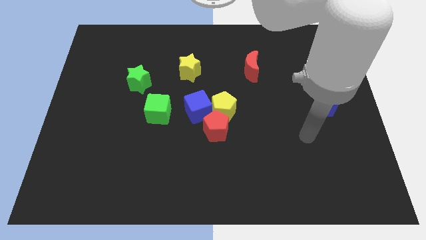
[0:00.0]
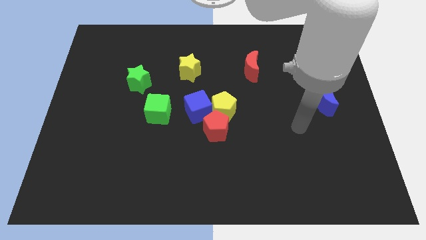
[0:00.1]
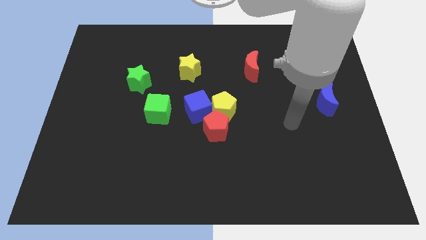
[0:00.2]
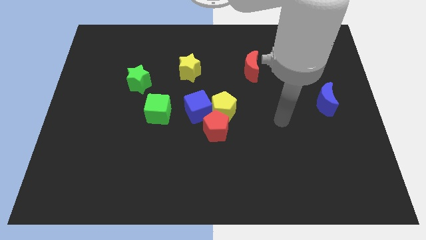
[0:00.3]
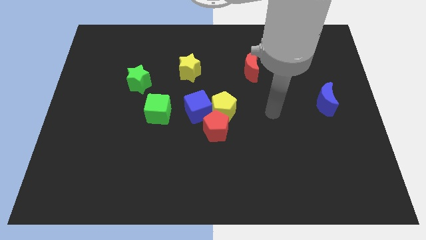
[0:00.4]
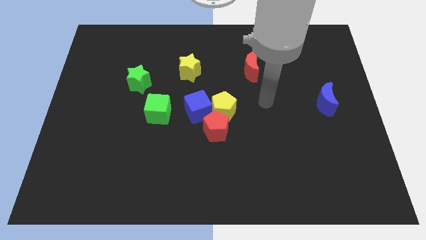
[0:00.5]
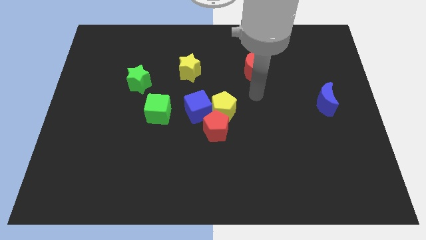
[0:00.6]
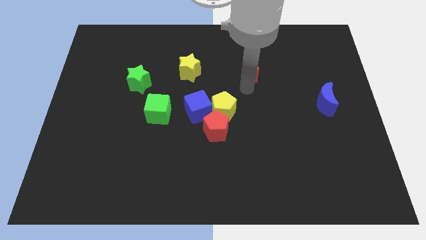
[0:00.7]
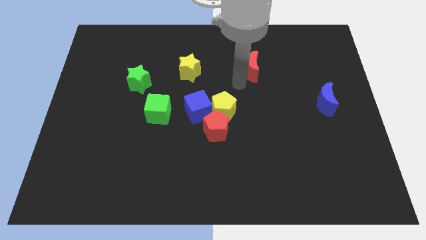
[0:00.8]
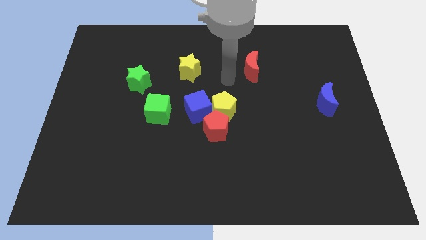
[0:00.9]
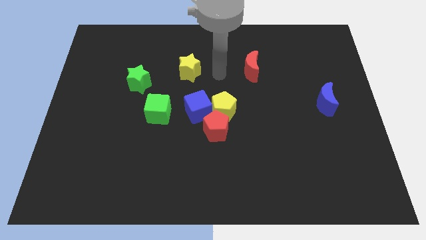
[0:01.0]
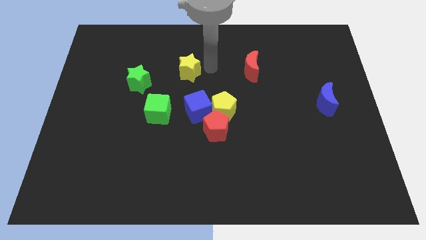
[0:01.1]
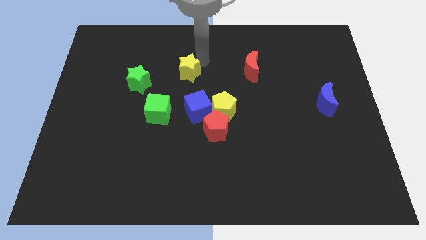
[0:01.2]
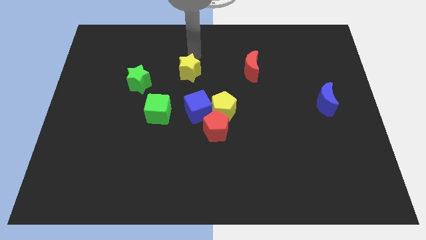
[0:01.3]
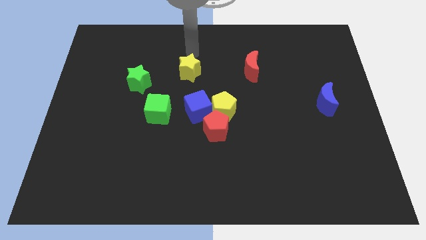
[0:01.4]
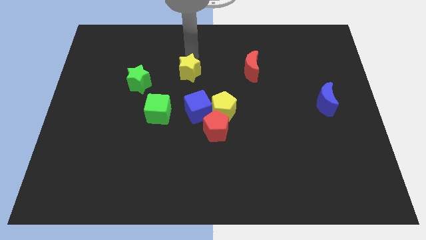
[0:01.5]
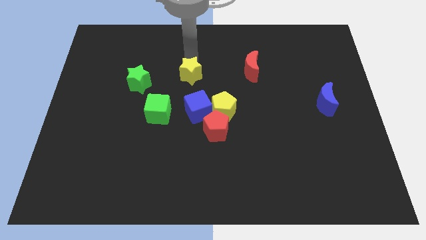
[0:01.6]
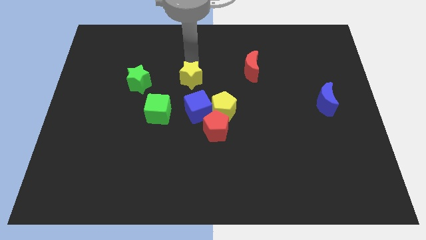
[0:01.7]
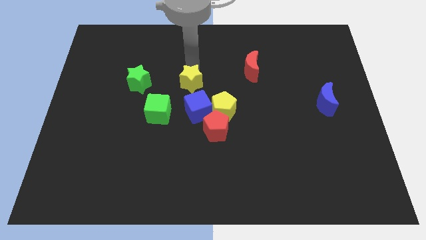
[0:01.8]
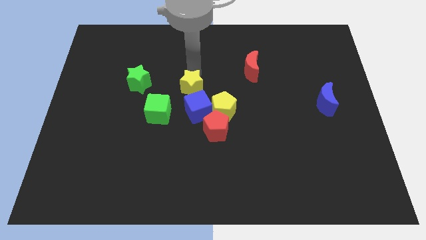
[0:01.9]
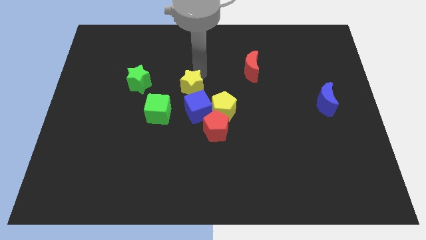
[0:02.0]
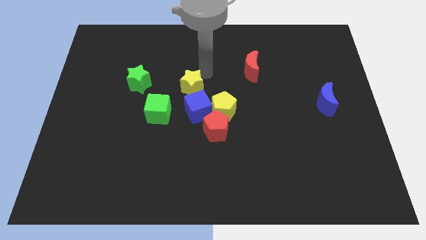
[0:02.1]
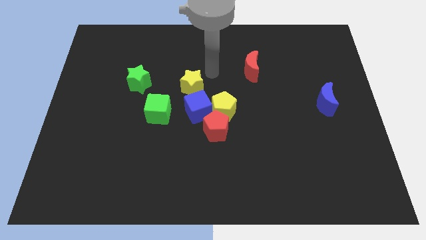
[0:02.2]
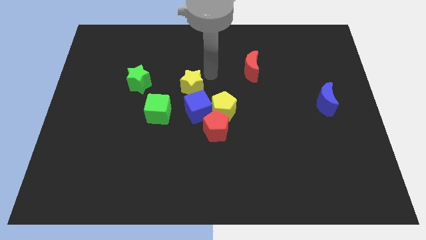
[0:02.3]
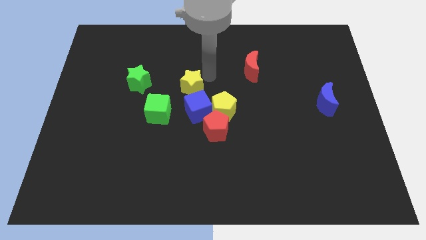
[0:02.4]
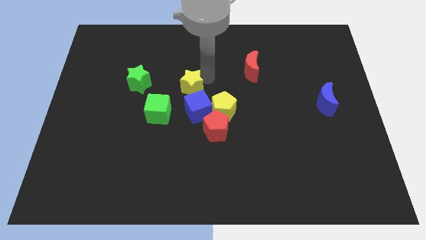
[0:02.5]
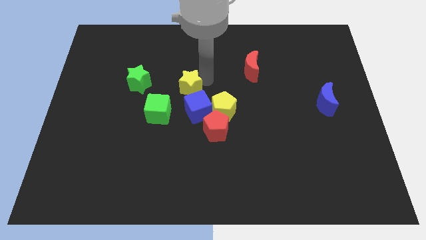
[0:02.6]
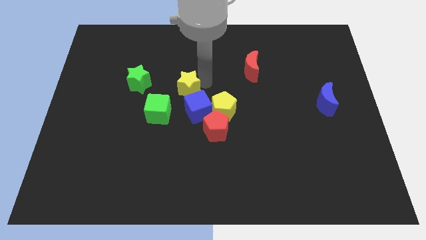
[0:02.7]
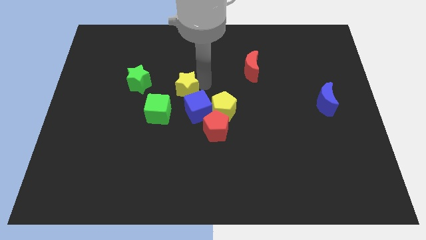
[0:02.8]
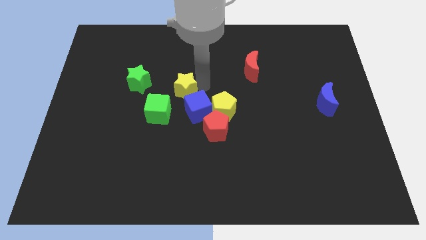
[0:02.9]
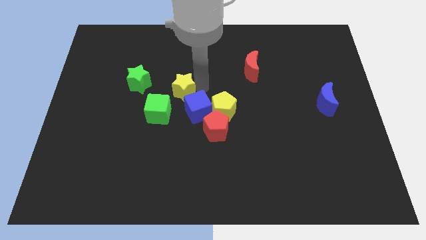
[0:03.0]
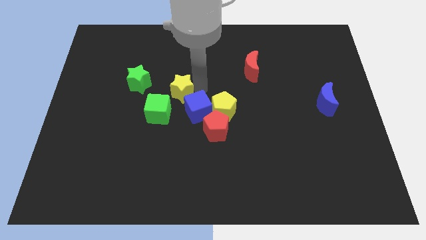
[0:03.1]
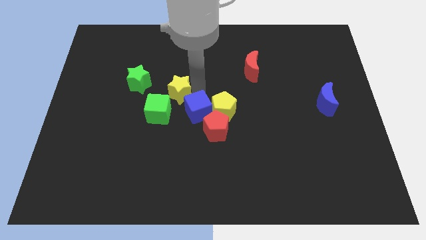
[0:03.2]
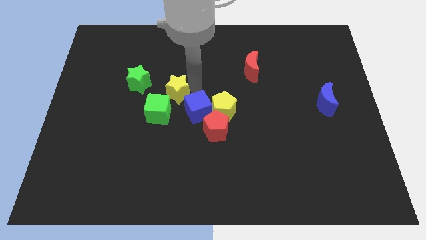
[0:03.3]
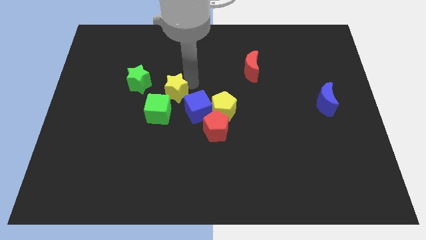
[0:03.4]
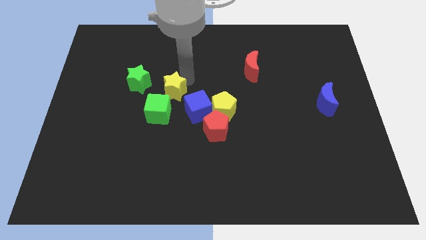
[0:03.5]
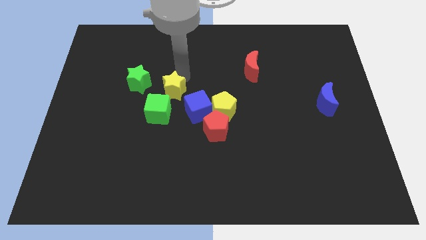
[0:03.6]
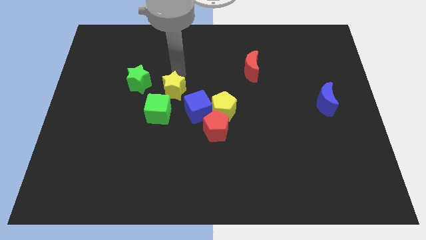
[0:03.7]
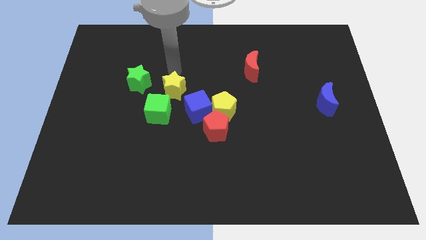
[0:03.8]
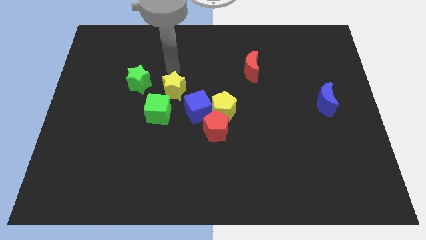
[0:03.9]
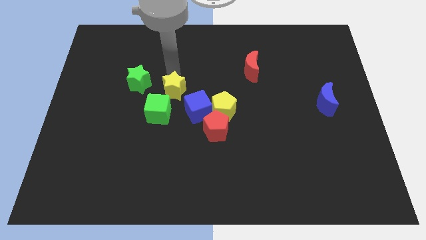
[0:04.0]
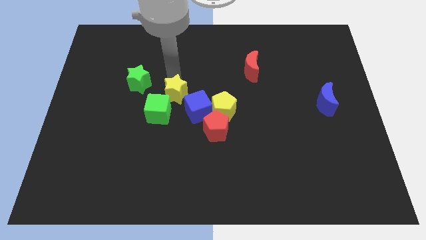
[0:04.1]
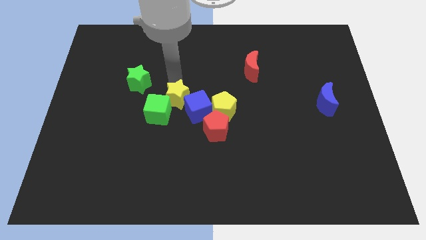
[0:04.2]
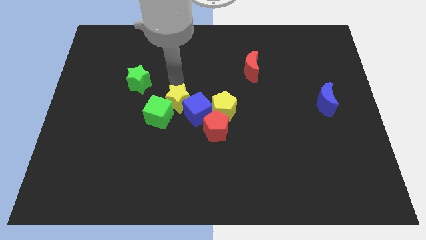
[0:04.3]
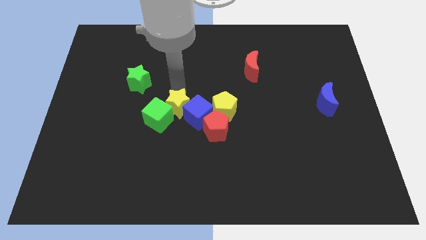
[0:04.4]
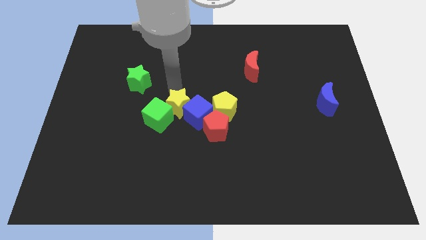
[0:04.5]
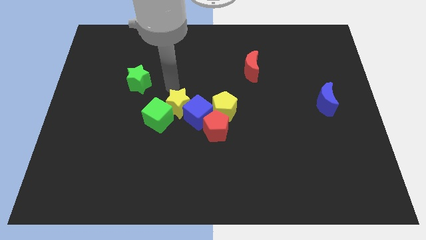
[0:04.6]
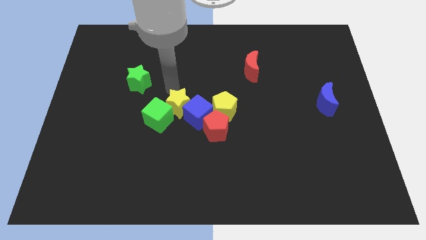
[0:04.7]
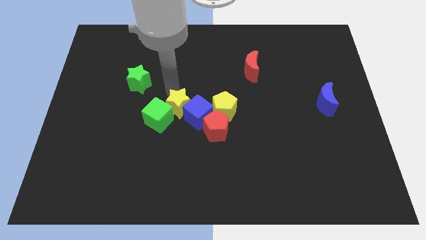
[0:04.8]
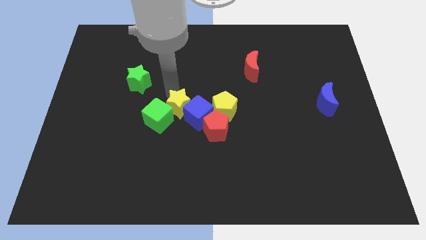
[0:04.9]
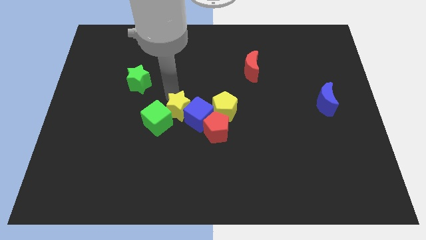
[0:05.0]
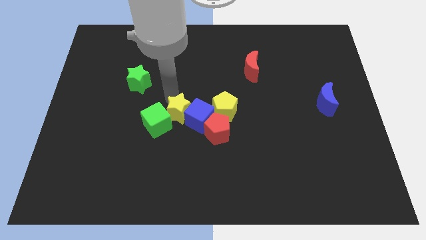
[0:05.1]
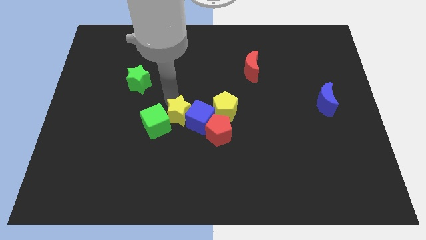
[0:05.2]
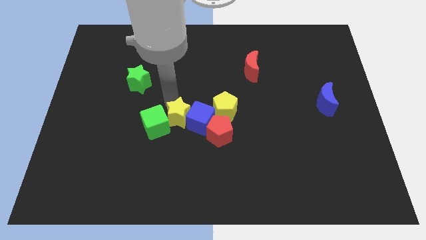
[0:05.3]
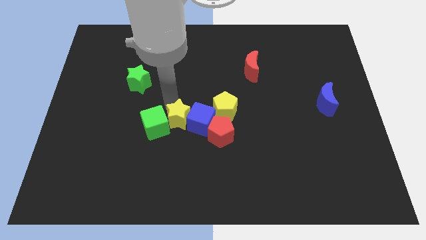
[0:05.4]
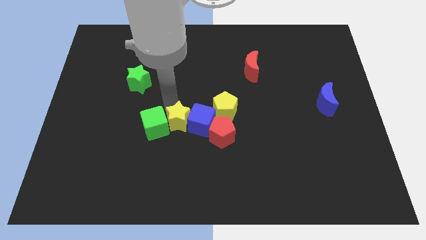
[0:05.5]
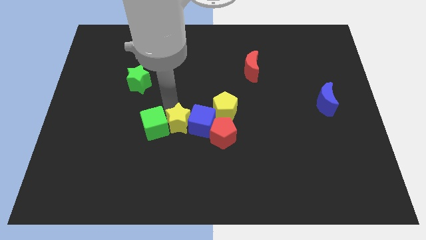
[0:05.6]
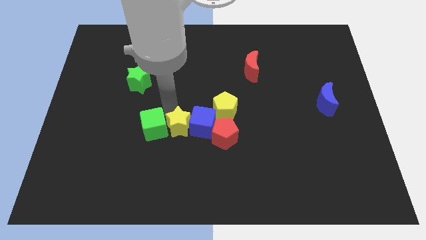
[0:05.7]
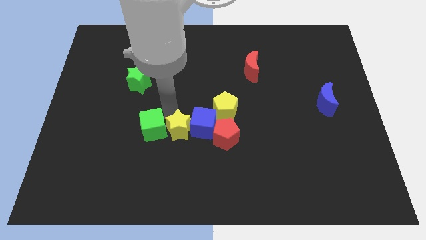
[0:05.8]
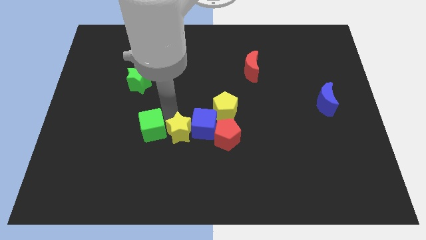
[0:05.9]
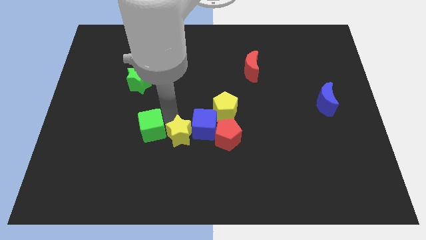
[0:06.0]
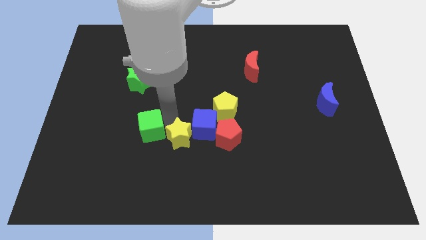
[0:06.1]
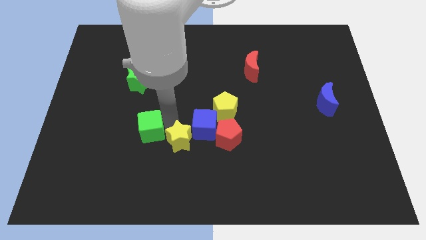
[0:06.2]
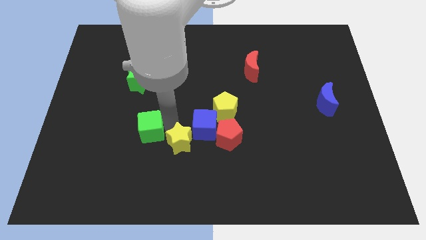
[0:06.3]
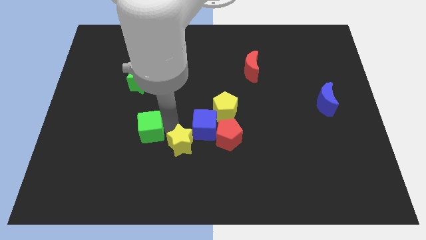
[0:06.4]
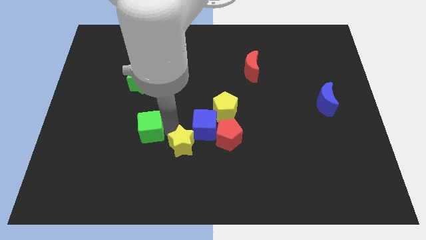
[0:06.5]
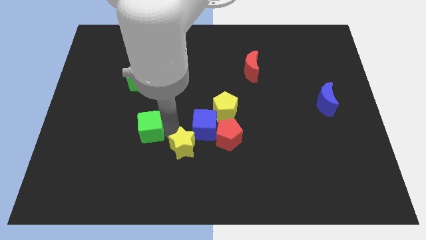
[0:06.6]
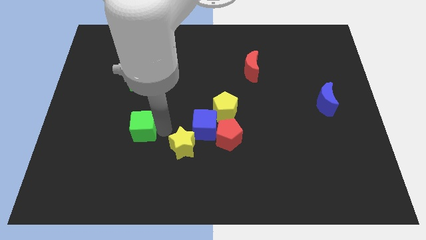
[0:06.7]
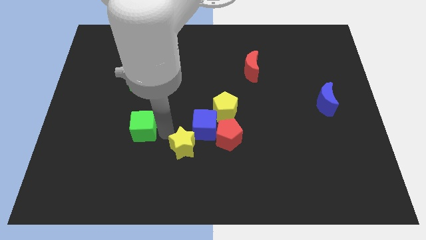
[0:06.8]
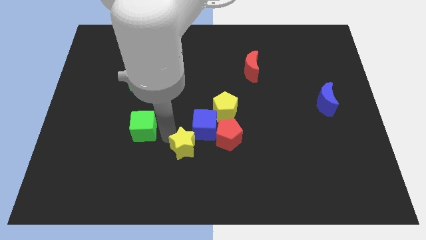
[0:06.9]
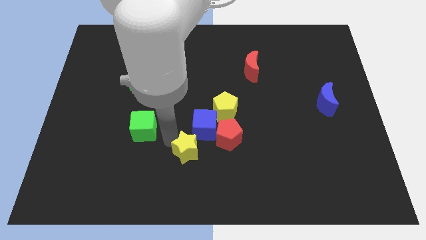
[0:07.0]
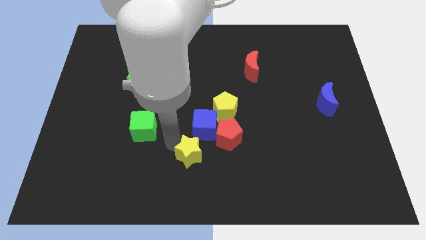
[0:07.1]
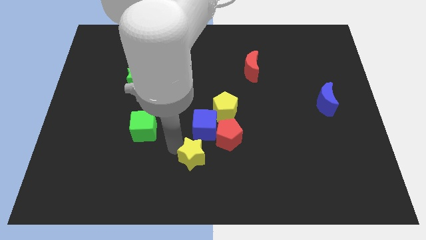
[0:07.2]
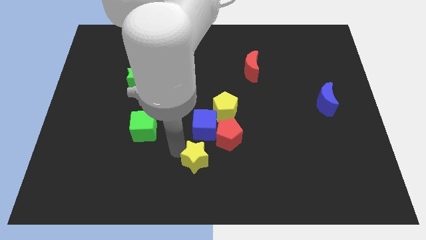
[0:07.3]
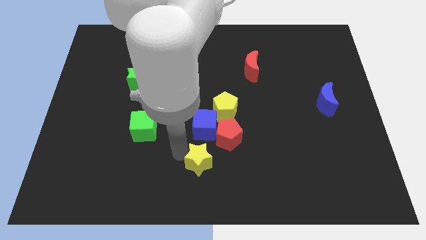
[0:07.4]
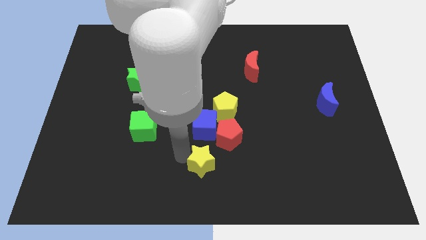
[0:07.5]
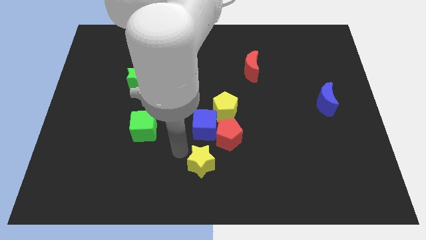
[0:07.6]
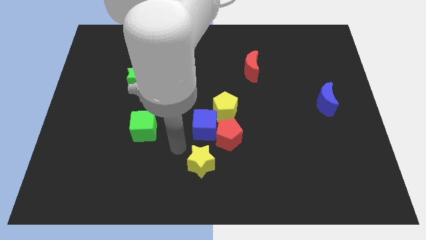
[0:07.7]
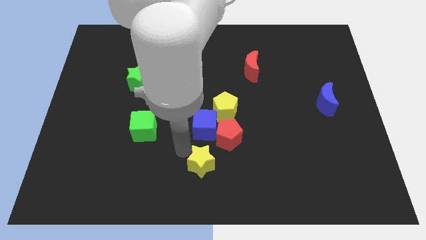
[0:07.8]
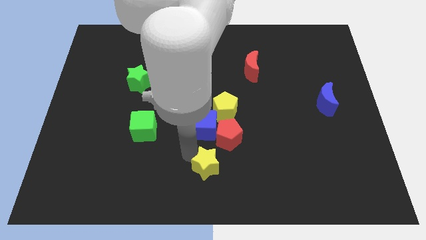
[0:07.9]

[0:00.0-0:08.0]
move the yellow star to the bottom side of the red pentagon
